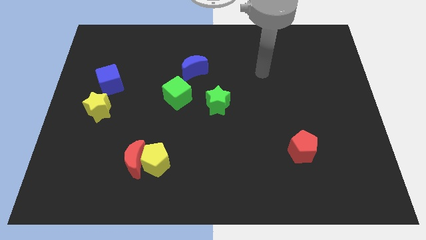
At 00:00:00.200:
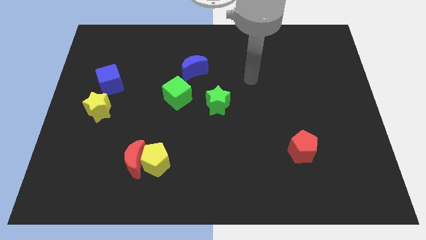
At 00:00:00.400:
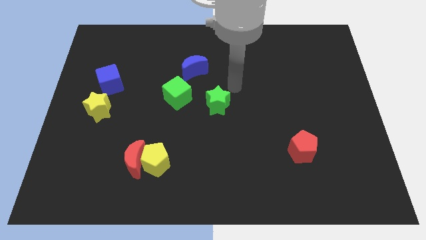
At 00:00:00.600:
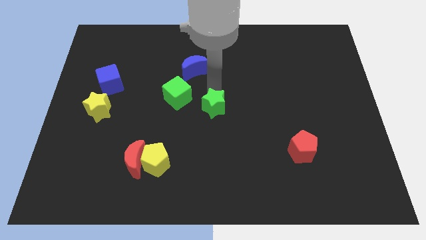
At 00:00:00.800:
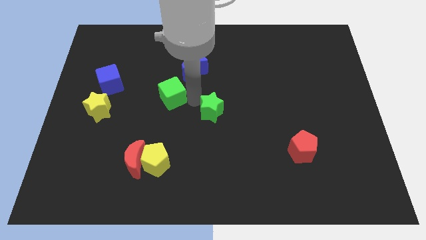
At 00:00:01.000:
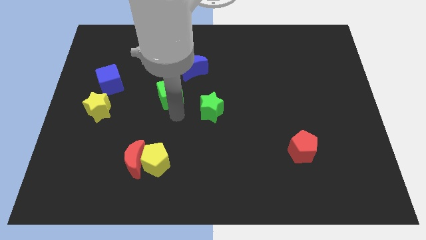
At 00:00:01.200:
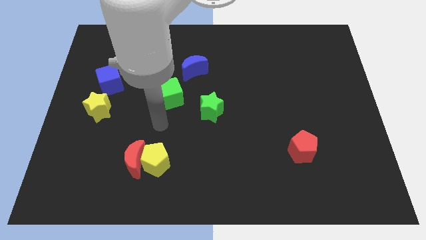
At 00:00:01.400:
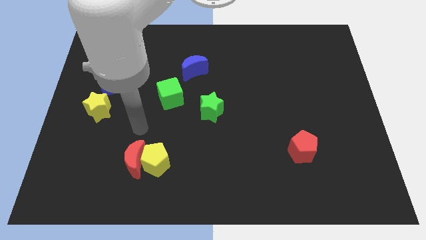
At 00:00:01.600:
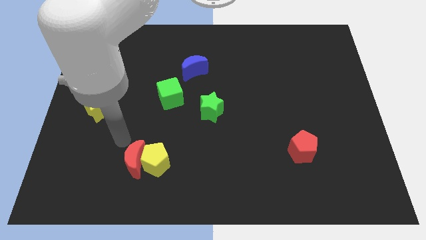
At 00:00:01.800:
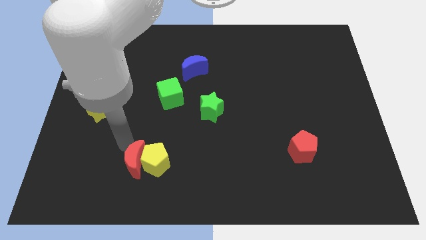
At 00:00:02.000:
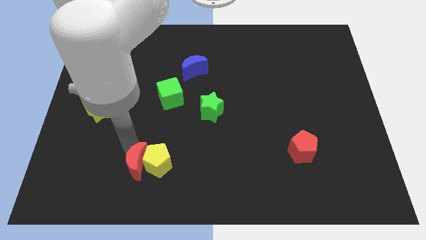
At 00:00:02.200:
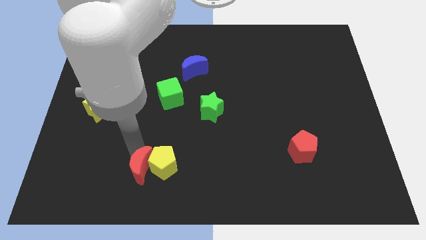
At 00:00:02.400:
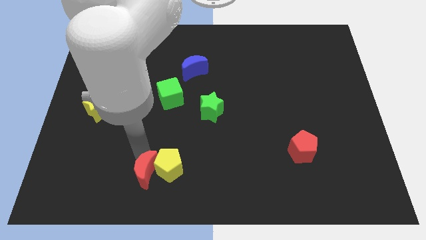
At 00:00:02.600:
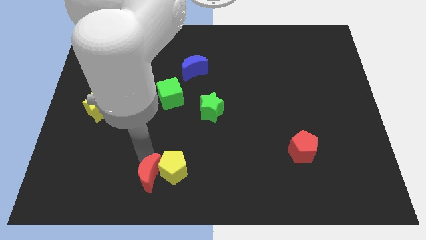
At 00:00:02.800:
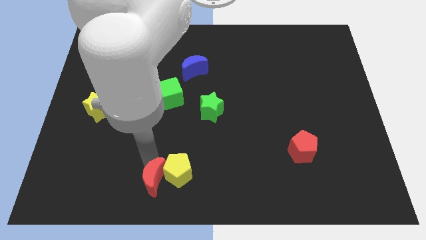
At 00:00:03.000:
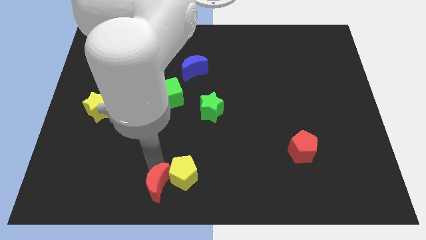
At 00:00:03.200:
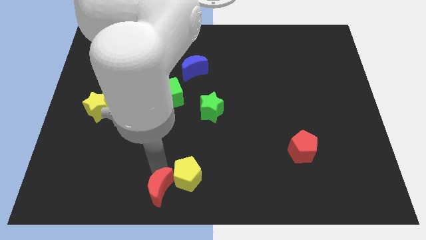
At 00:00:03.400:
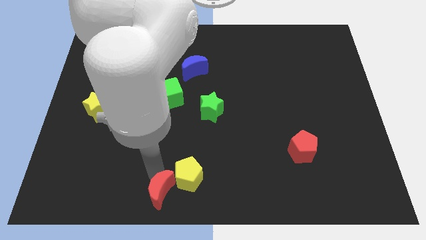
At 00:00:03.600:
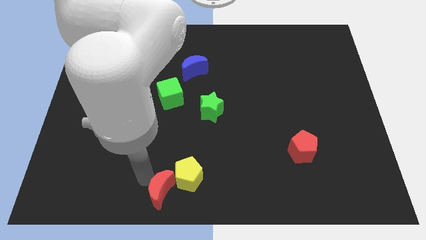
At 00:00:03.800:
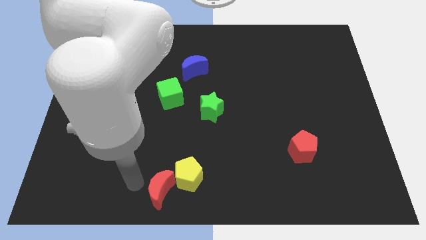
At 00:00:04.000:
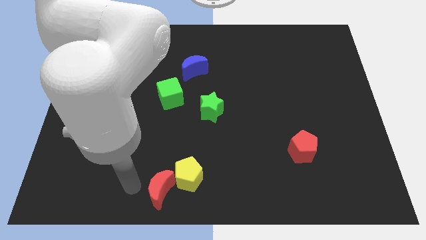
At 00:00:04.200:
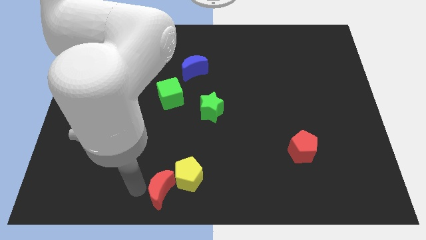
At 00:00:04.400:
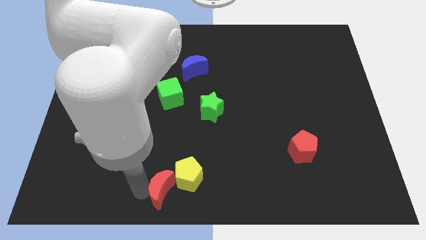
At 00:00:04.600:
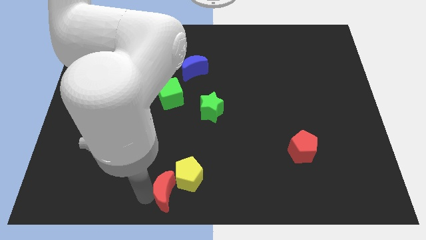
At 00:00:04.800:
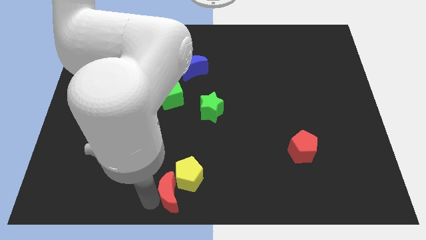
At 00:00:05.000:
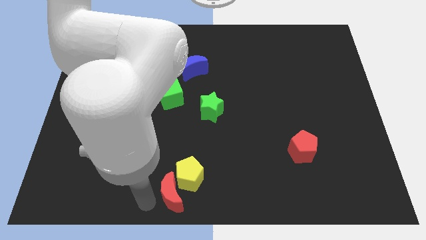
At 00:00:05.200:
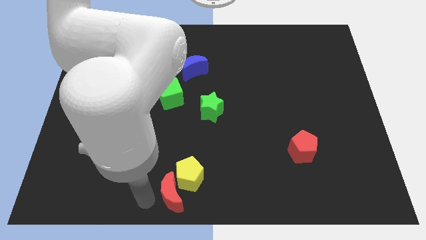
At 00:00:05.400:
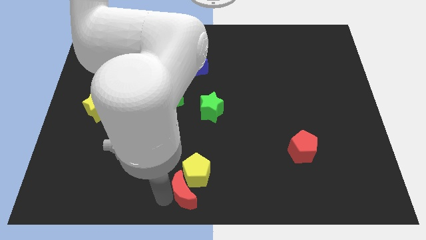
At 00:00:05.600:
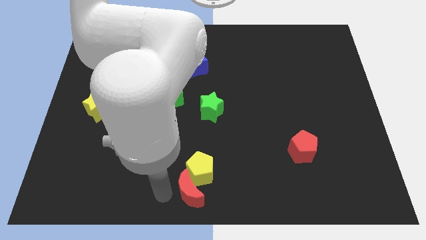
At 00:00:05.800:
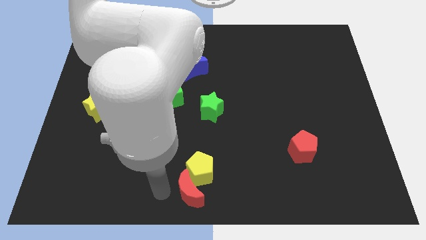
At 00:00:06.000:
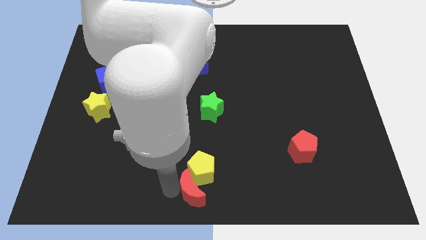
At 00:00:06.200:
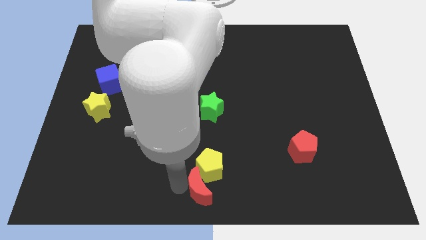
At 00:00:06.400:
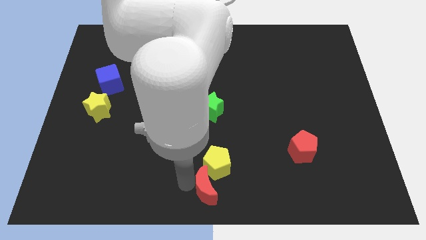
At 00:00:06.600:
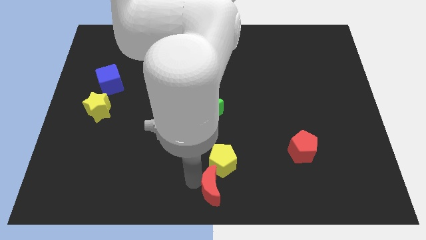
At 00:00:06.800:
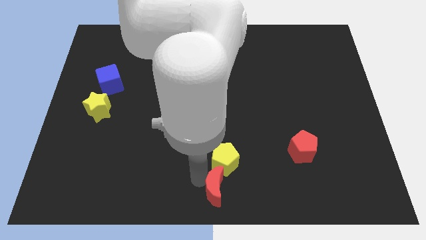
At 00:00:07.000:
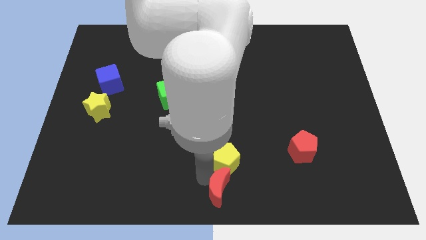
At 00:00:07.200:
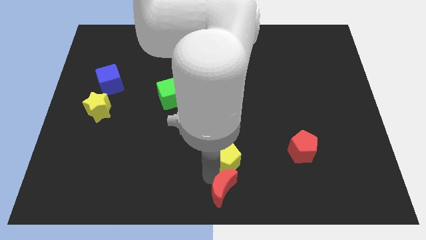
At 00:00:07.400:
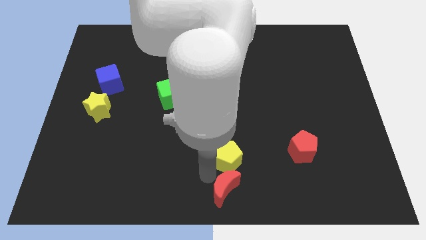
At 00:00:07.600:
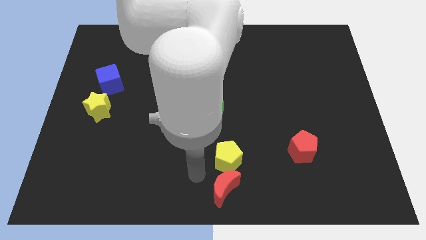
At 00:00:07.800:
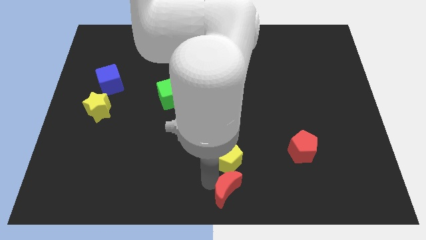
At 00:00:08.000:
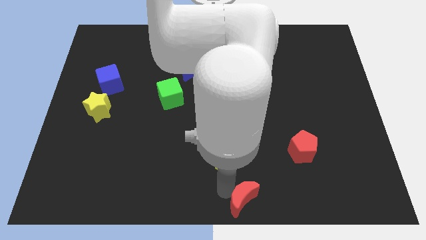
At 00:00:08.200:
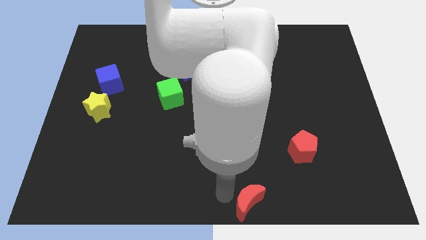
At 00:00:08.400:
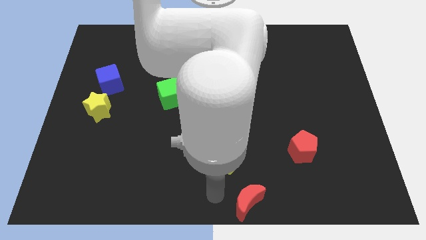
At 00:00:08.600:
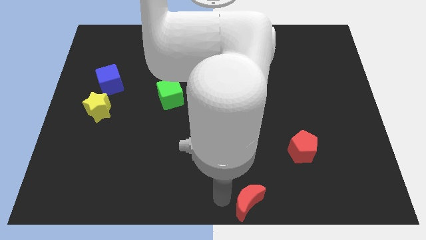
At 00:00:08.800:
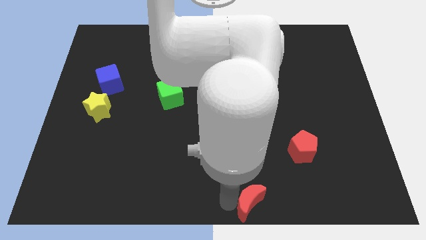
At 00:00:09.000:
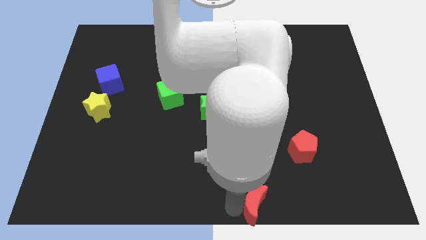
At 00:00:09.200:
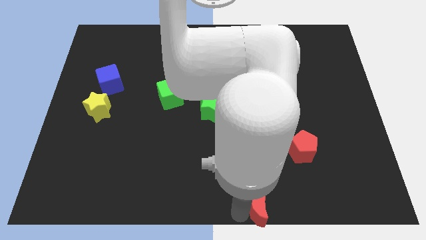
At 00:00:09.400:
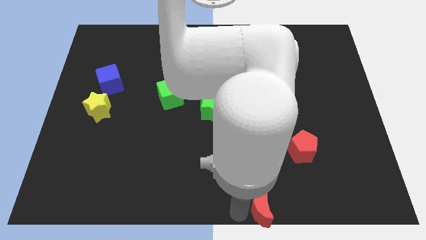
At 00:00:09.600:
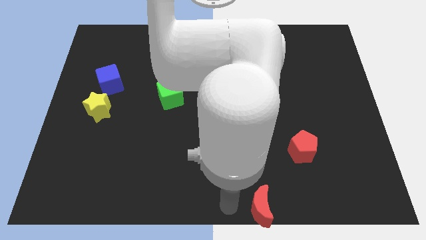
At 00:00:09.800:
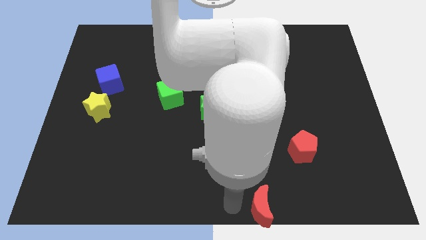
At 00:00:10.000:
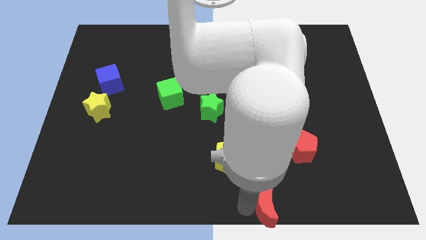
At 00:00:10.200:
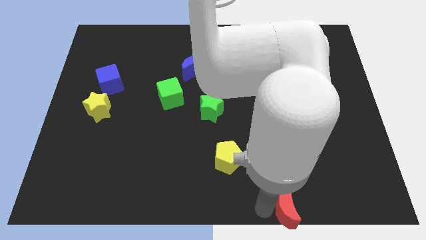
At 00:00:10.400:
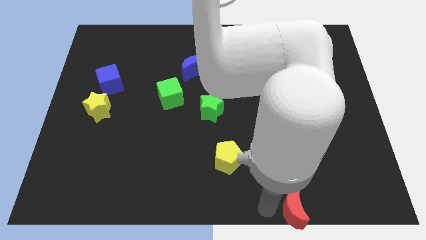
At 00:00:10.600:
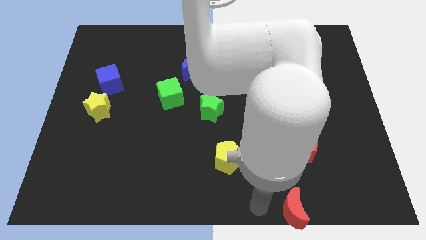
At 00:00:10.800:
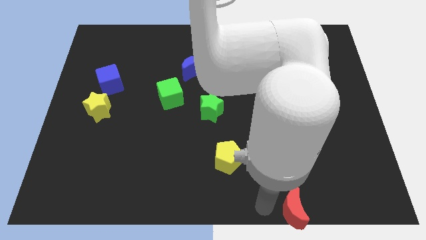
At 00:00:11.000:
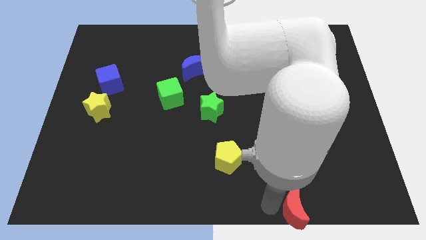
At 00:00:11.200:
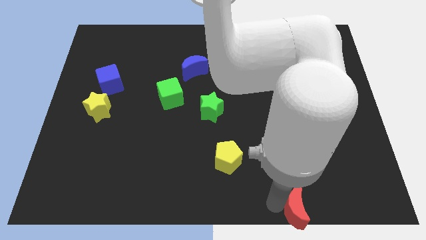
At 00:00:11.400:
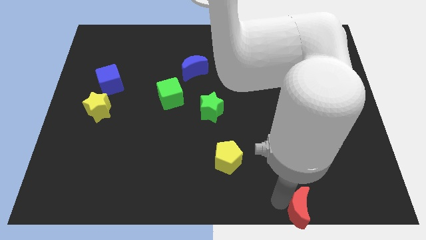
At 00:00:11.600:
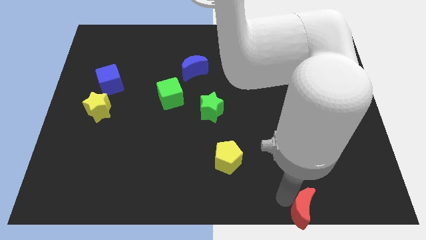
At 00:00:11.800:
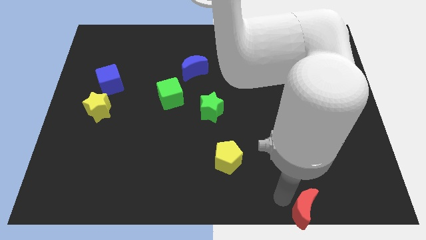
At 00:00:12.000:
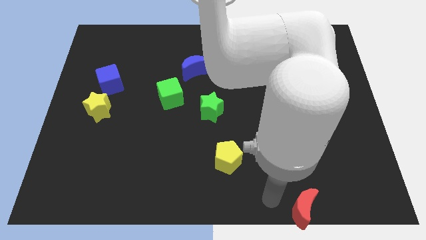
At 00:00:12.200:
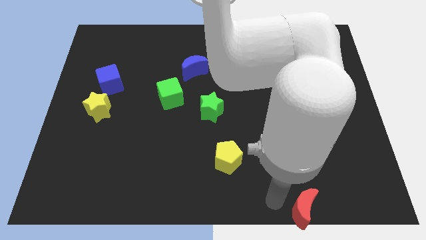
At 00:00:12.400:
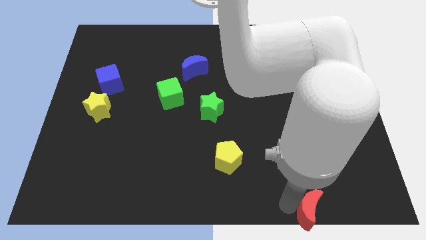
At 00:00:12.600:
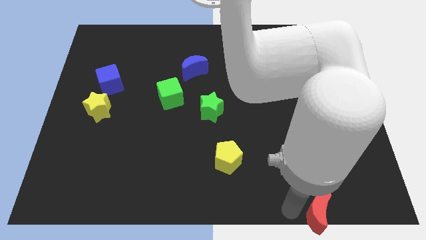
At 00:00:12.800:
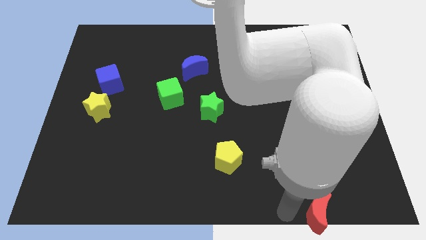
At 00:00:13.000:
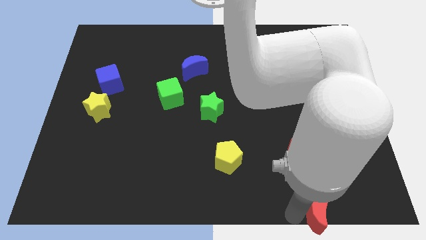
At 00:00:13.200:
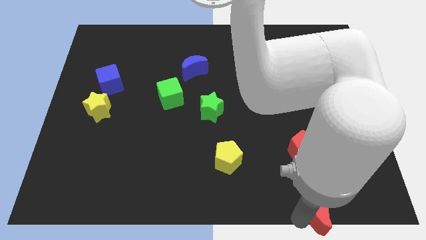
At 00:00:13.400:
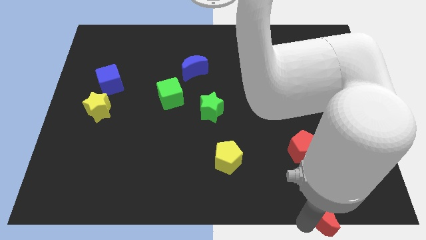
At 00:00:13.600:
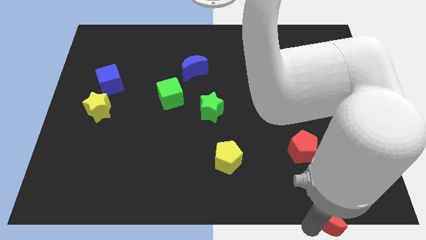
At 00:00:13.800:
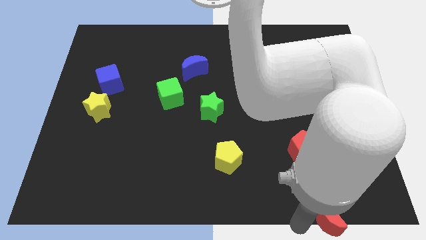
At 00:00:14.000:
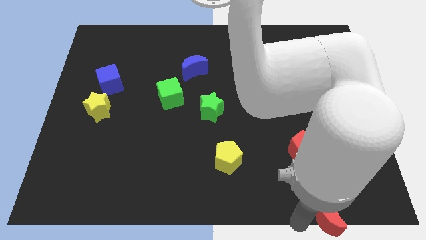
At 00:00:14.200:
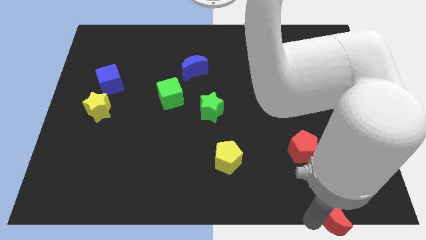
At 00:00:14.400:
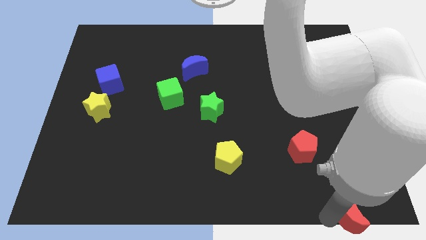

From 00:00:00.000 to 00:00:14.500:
slide the red moon to the bottom right of the board

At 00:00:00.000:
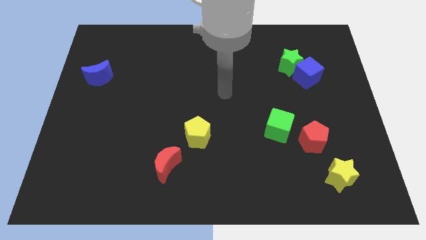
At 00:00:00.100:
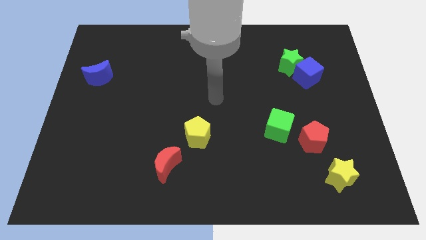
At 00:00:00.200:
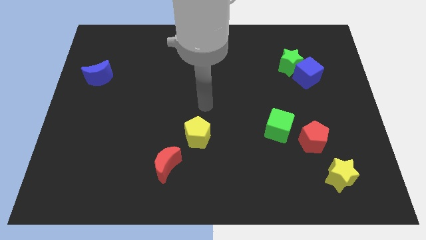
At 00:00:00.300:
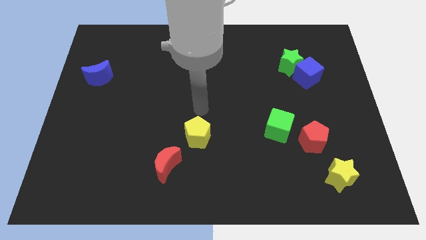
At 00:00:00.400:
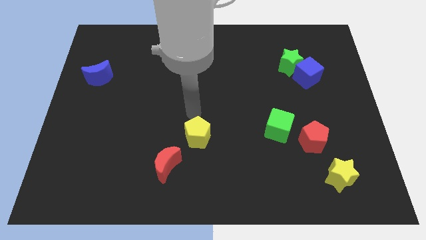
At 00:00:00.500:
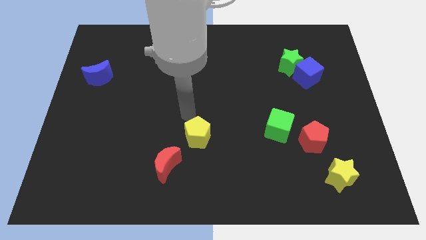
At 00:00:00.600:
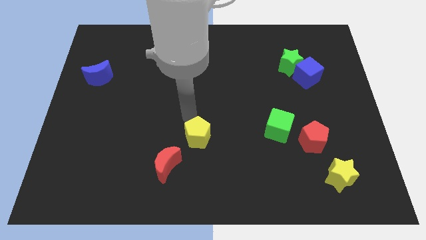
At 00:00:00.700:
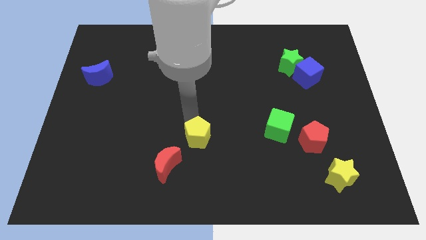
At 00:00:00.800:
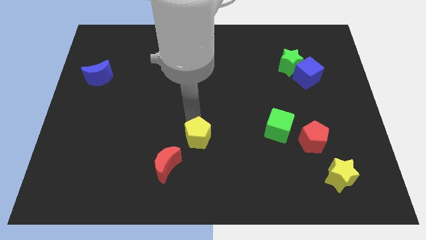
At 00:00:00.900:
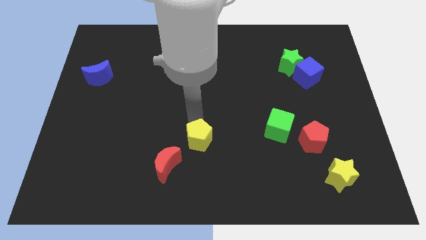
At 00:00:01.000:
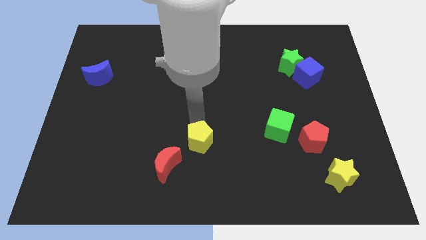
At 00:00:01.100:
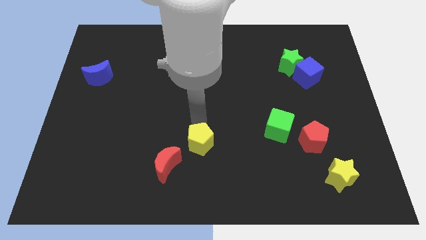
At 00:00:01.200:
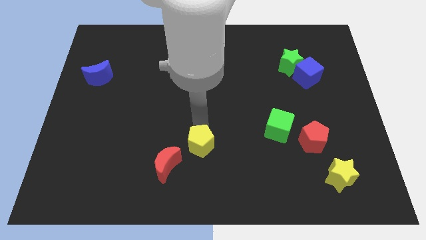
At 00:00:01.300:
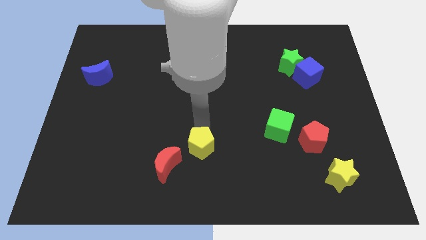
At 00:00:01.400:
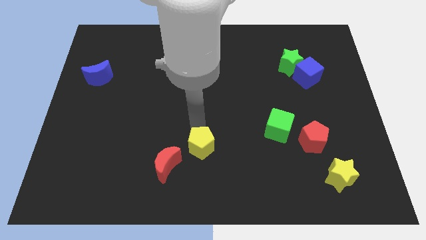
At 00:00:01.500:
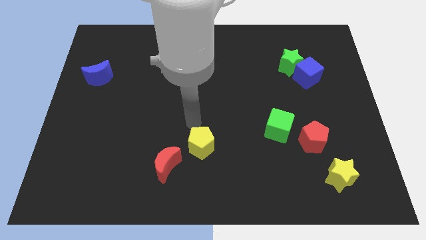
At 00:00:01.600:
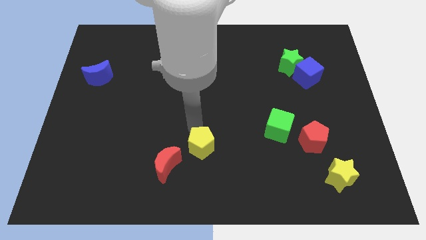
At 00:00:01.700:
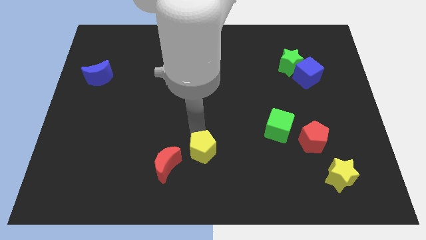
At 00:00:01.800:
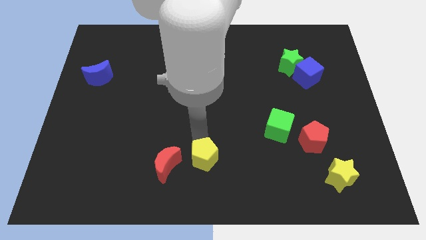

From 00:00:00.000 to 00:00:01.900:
put the yellow pentagon to the bottom side
